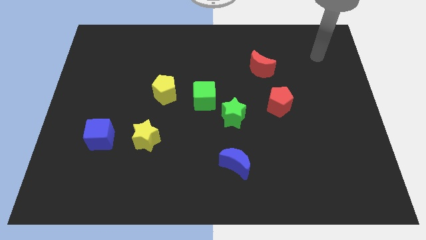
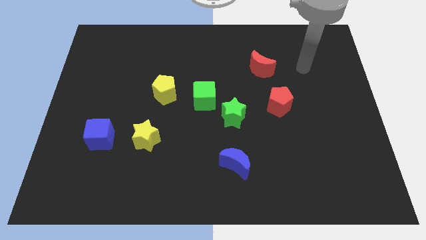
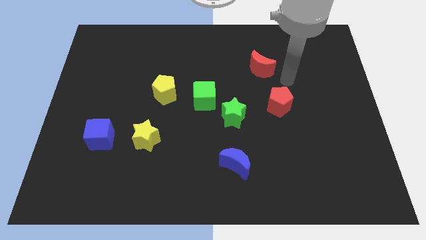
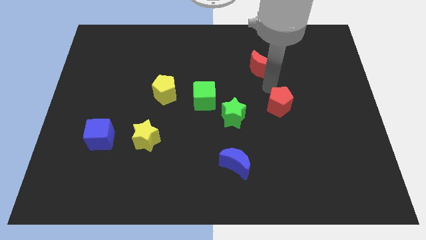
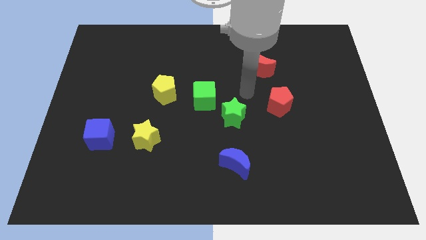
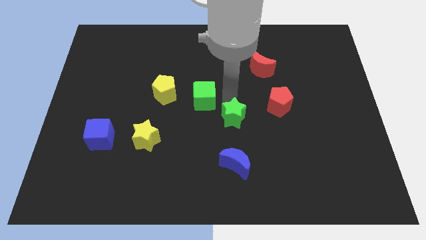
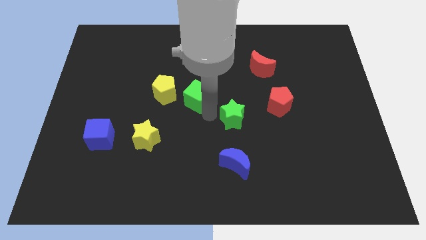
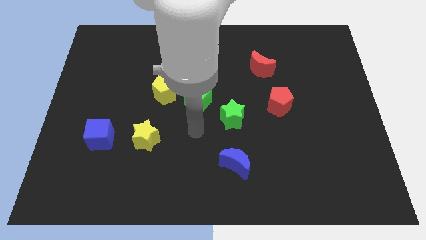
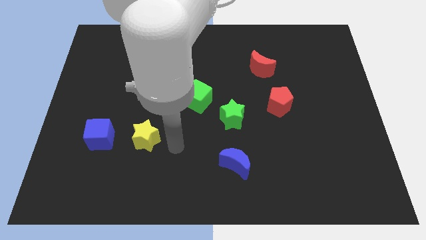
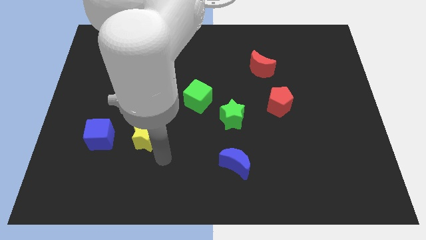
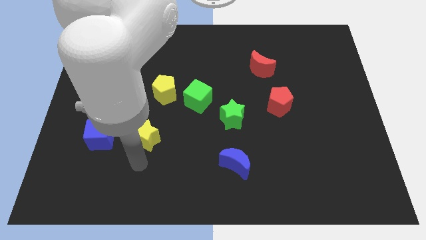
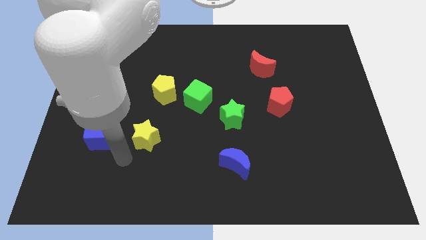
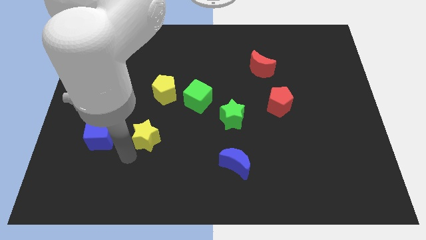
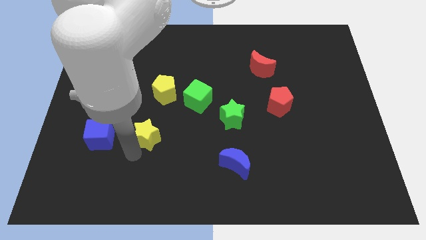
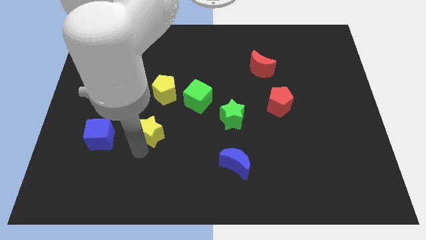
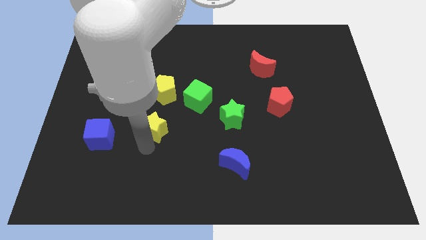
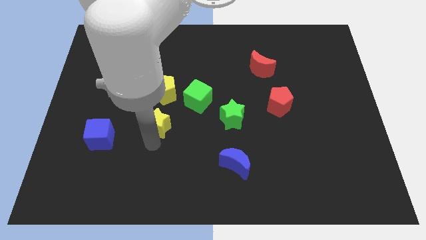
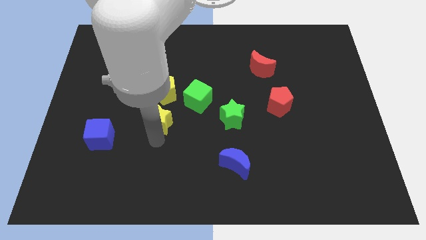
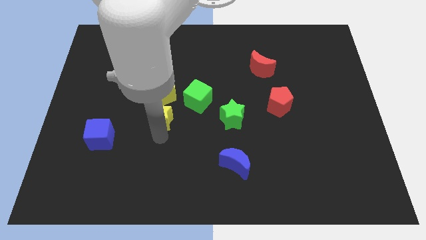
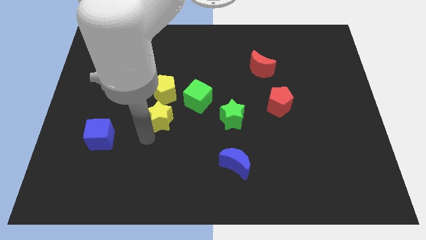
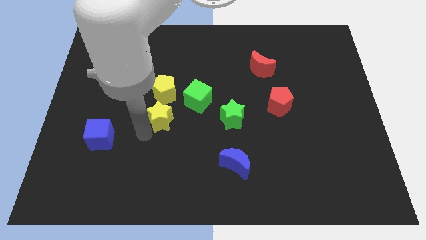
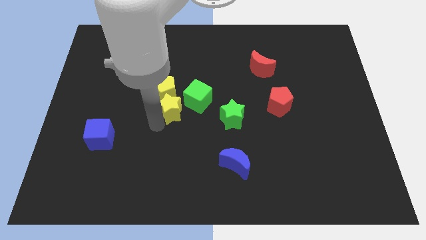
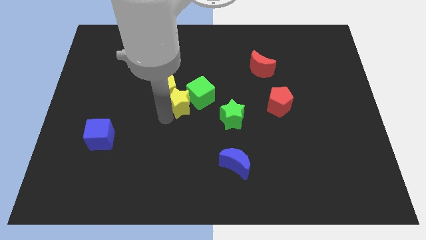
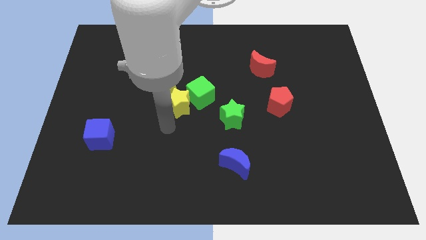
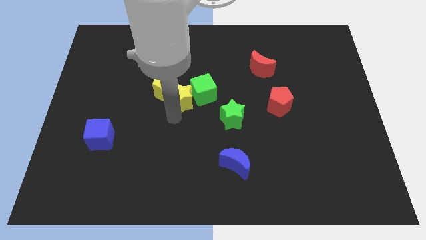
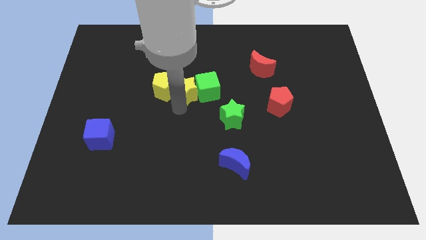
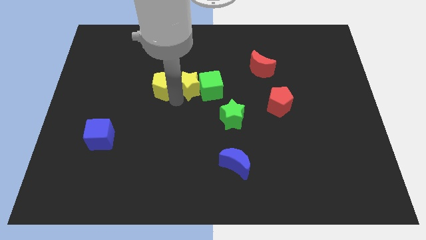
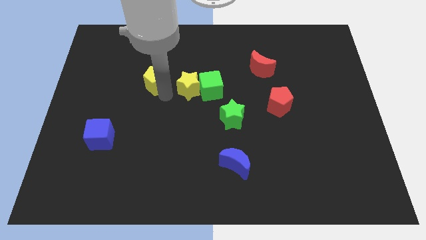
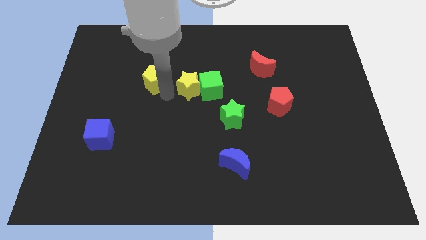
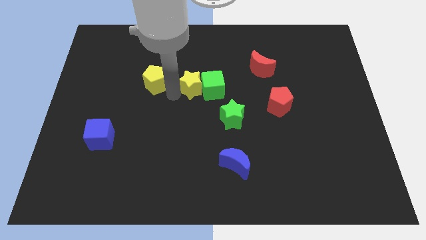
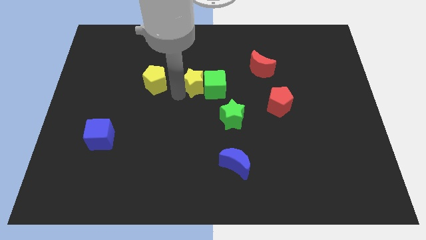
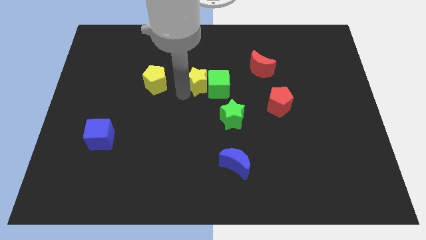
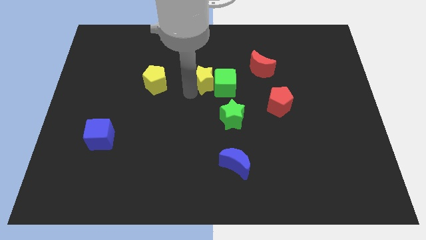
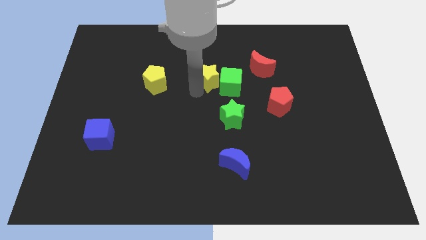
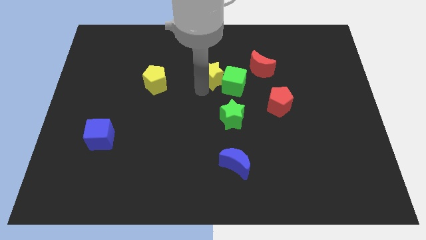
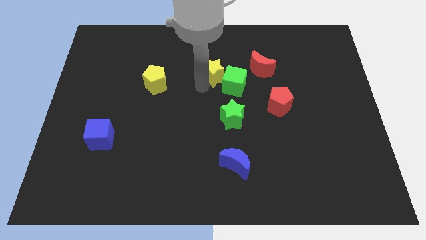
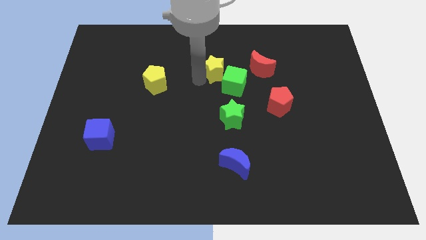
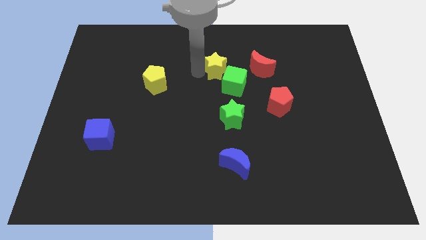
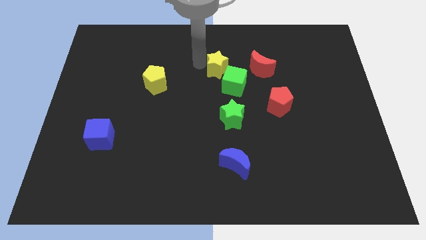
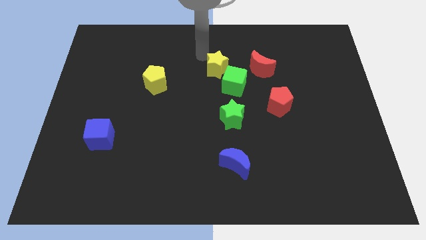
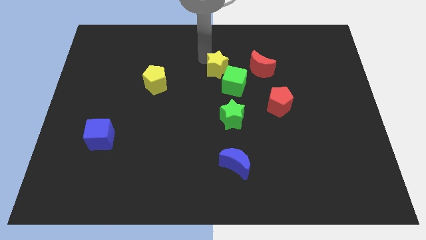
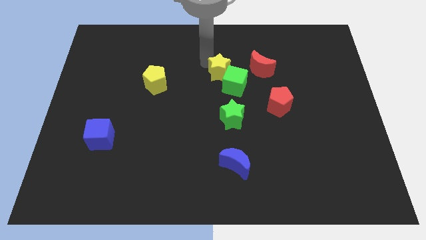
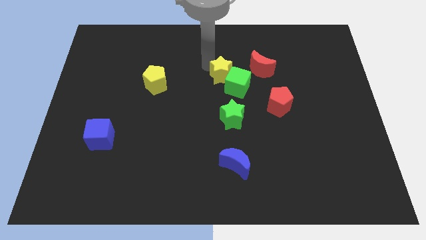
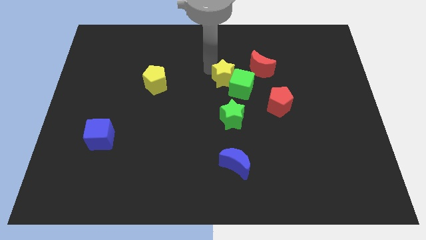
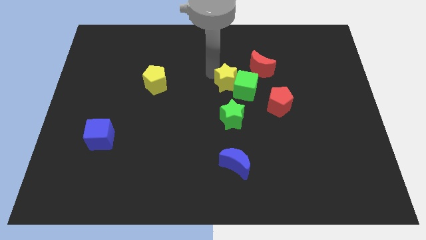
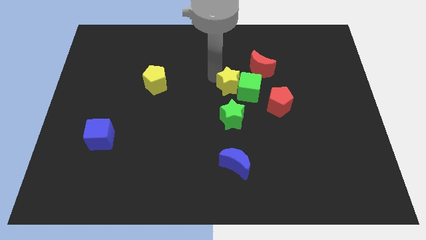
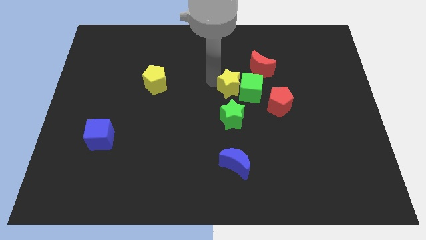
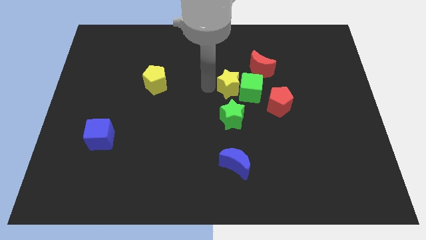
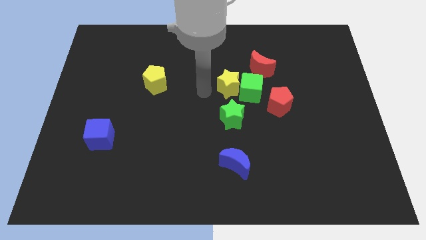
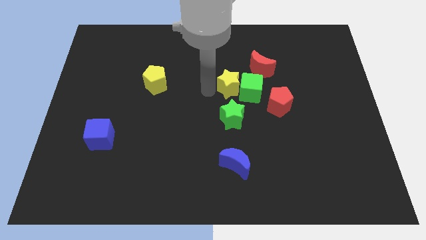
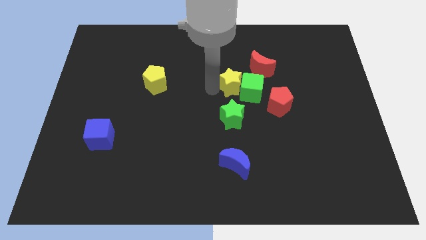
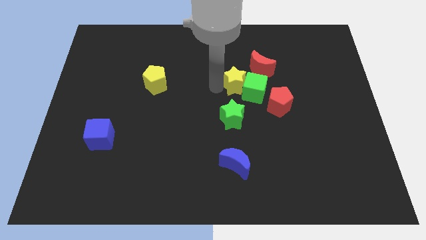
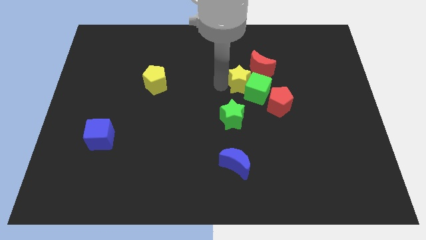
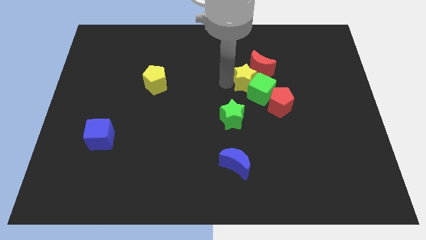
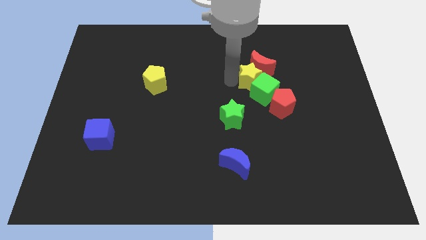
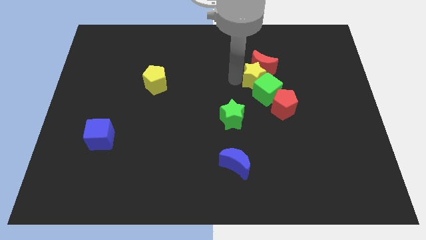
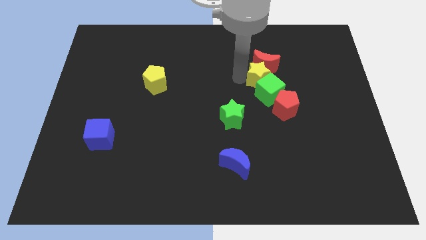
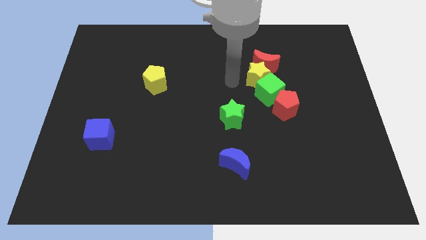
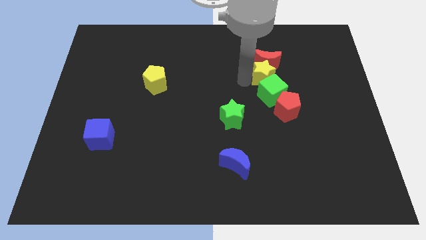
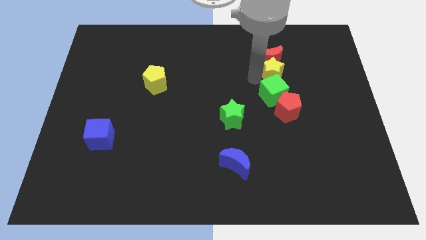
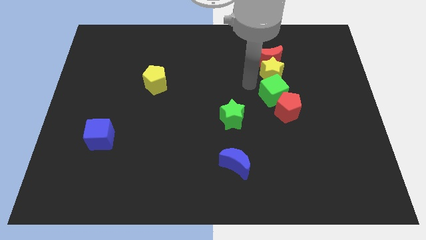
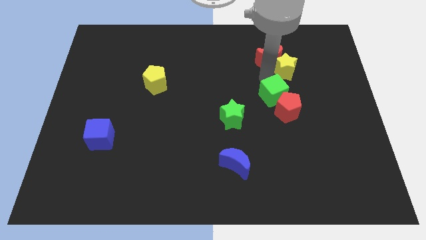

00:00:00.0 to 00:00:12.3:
move the yellow star to the right of the red moon

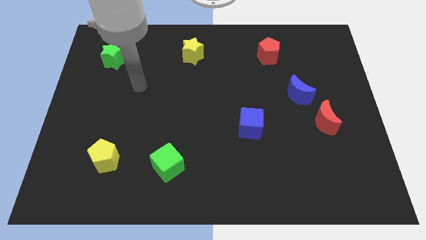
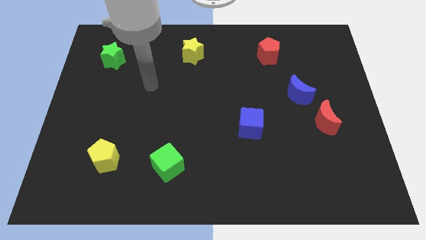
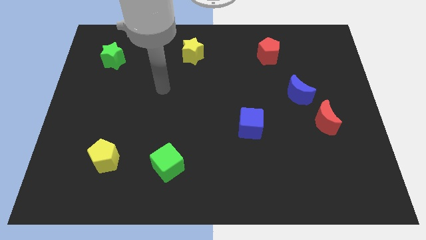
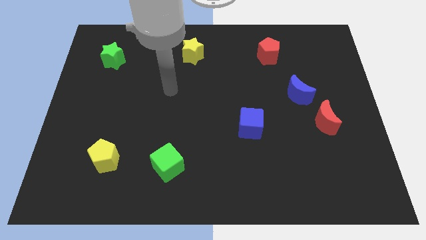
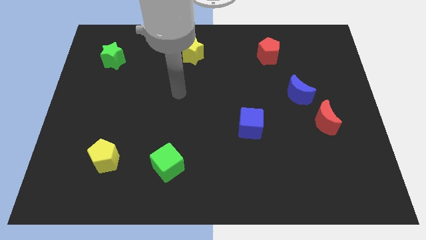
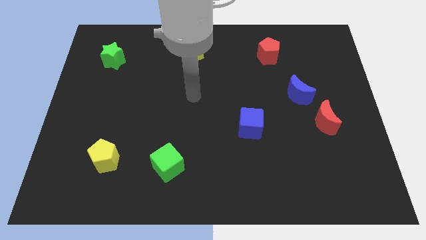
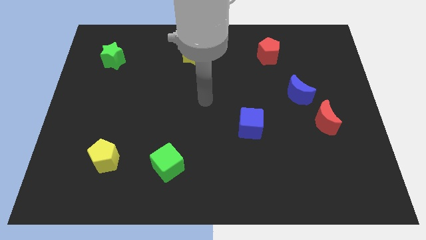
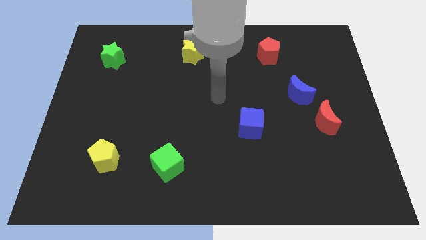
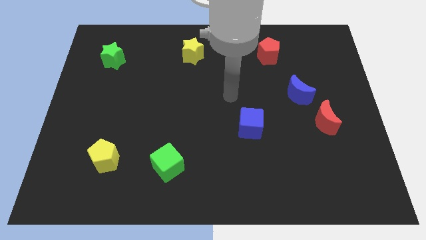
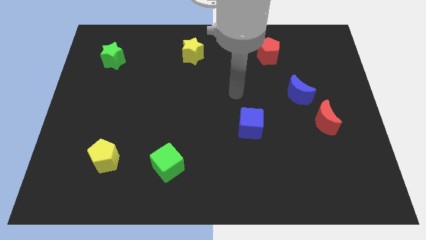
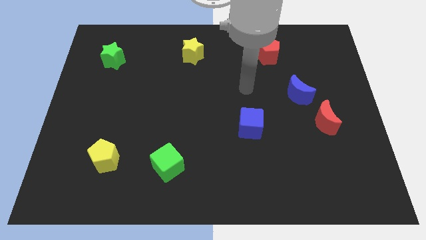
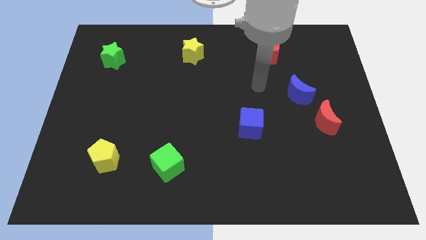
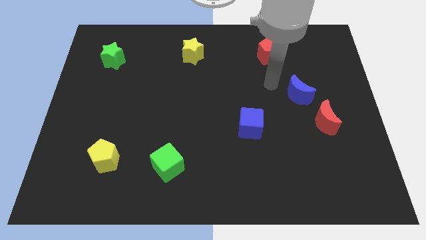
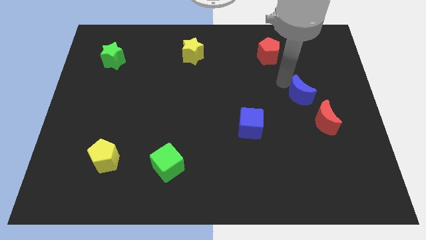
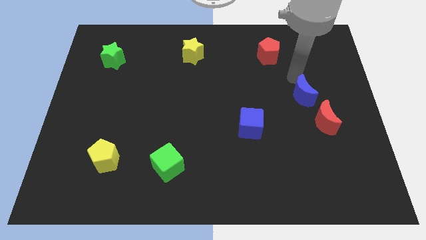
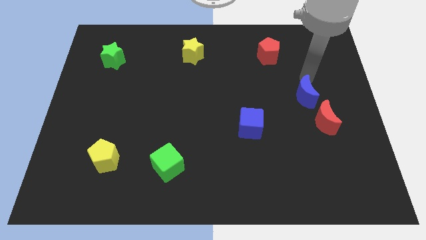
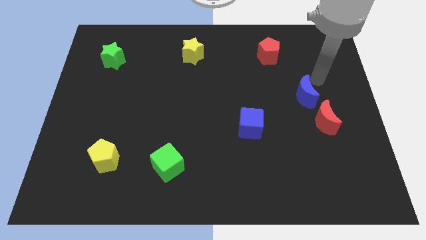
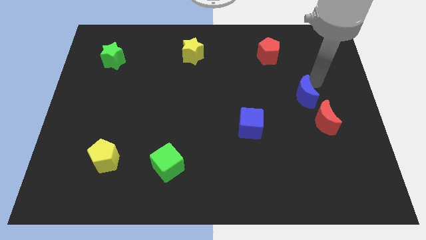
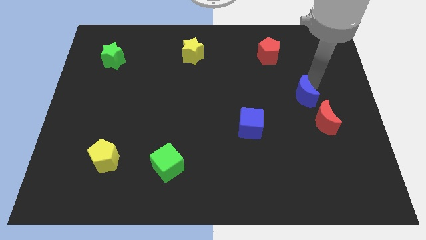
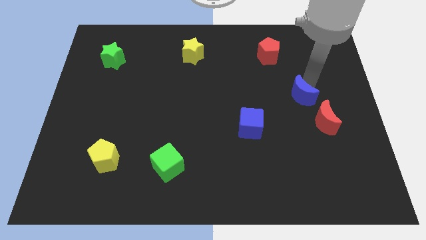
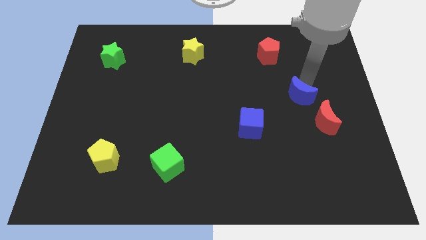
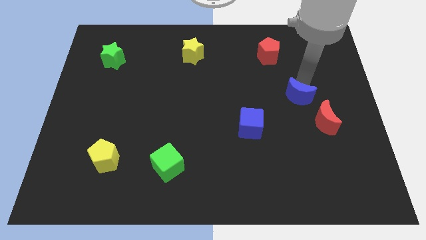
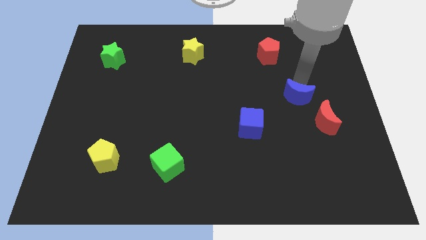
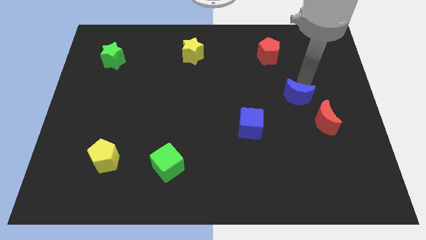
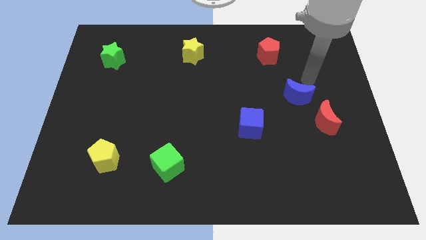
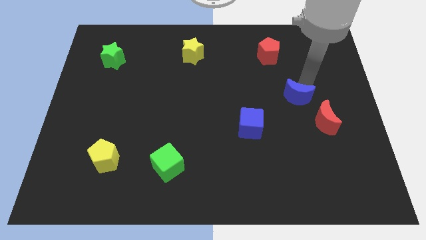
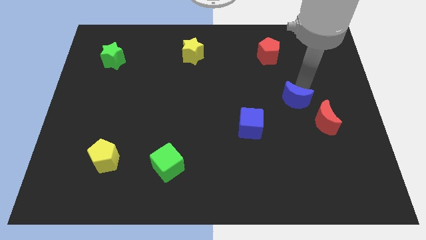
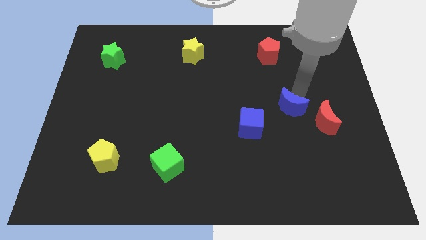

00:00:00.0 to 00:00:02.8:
put the blue moon just left of the red moon
